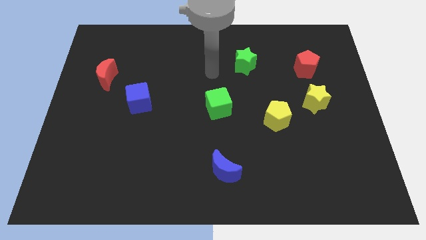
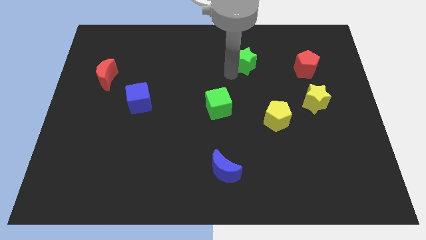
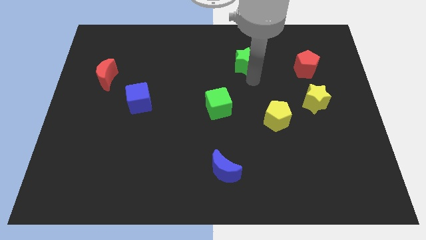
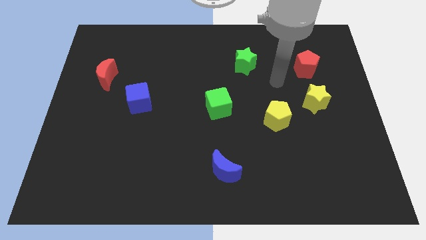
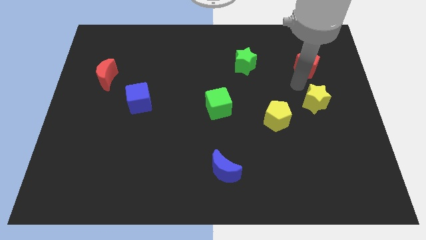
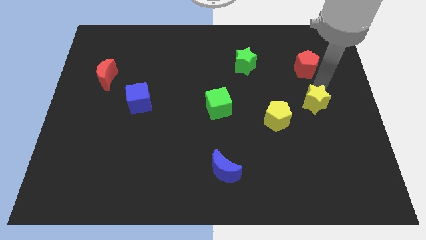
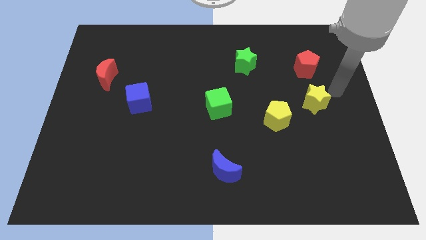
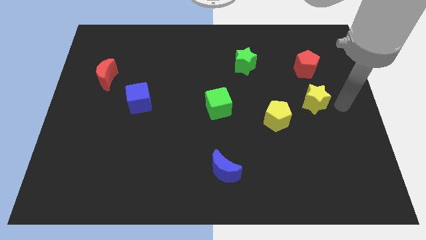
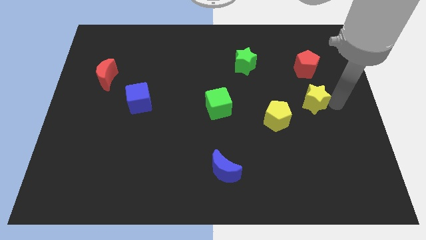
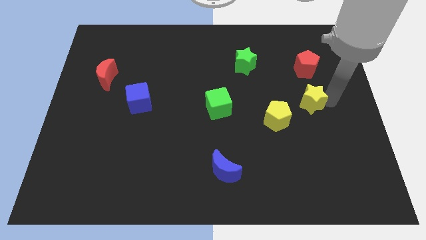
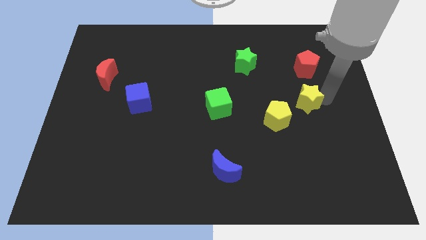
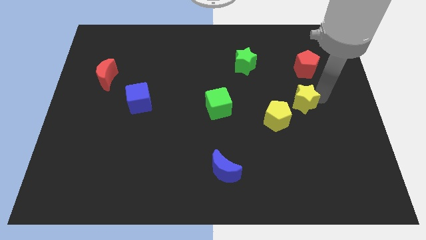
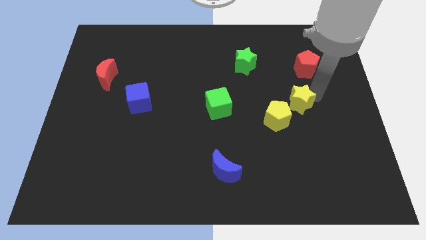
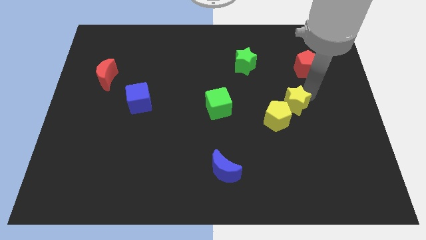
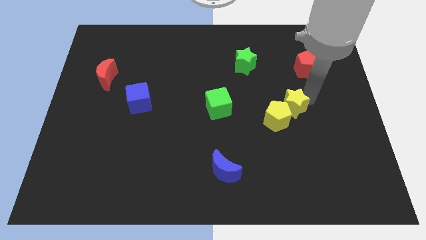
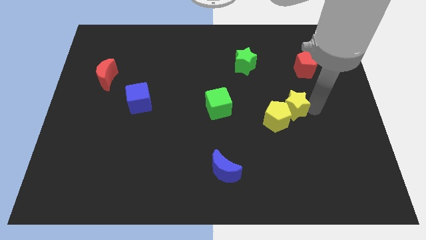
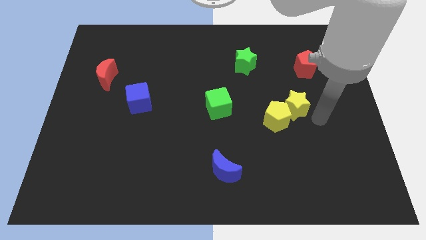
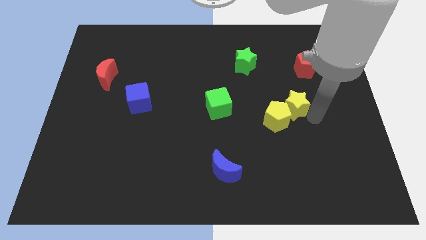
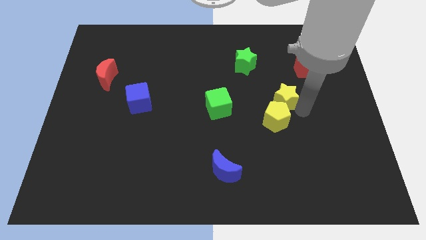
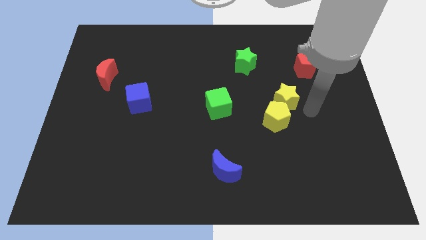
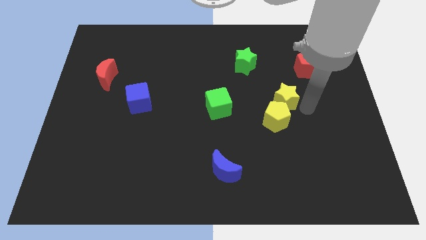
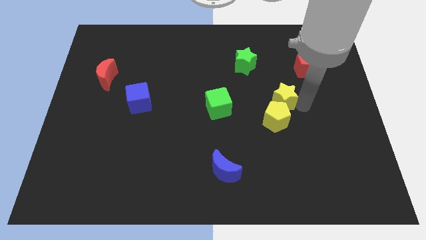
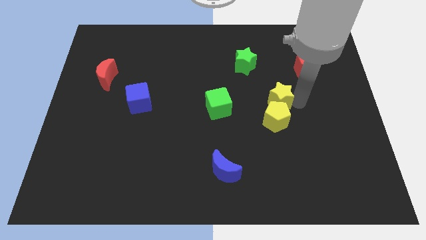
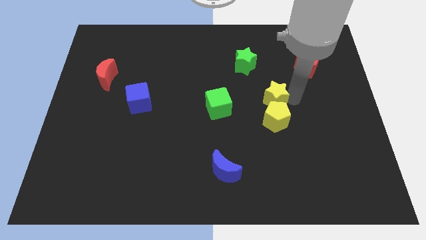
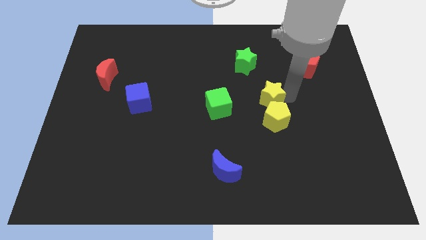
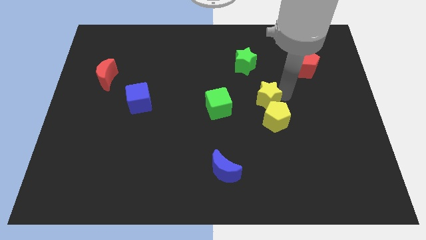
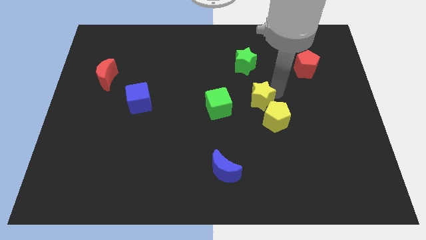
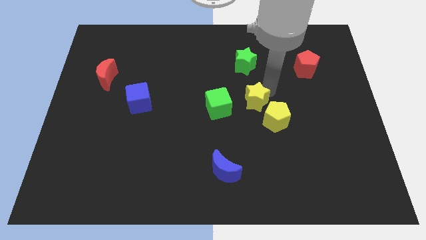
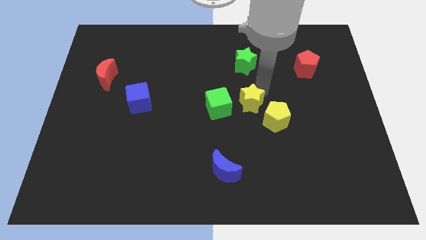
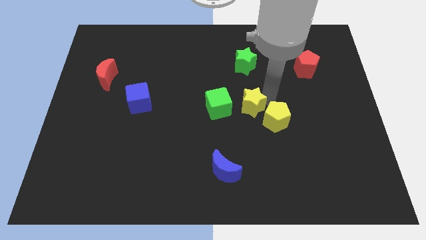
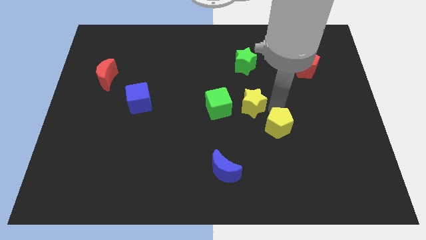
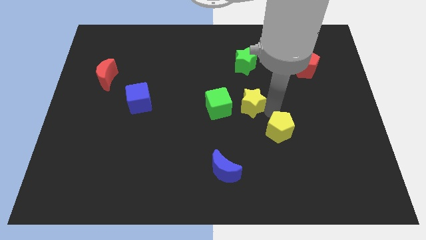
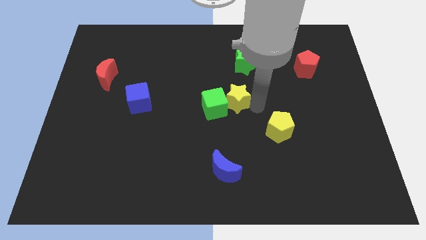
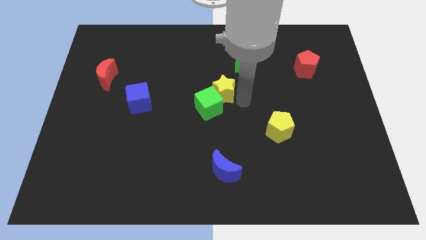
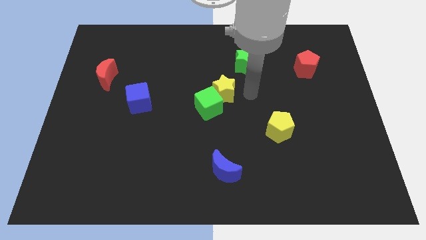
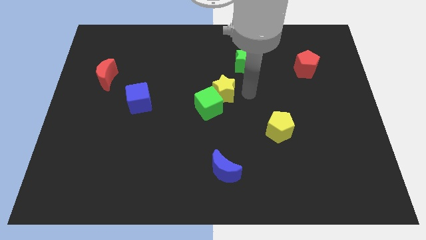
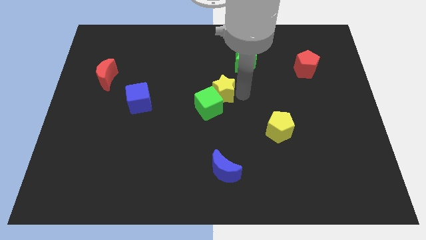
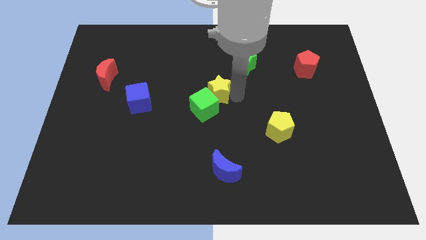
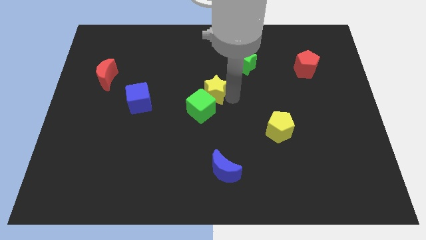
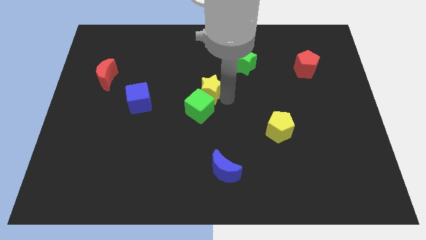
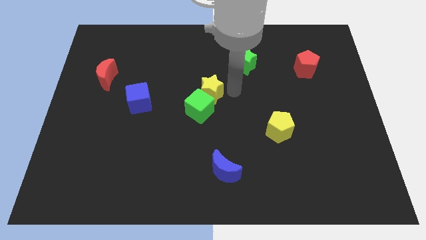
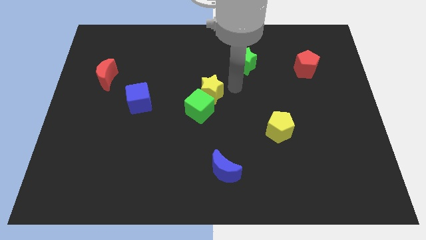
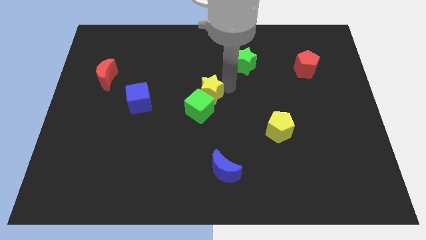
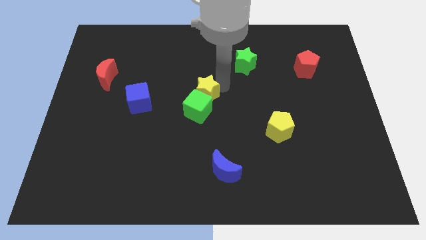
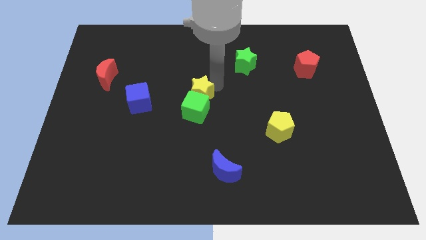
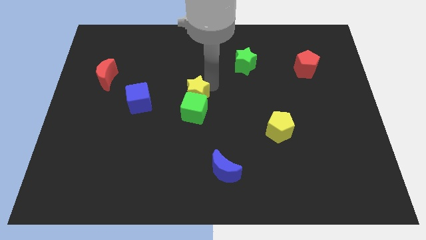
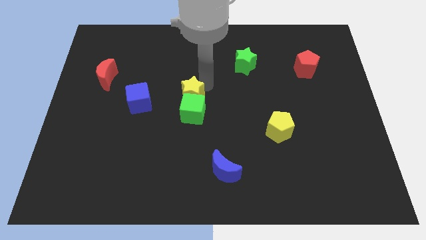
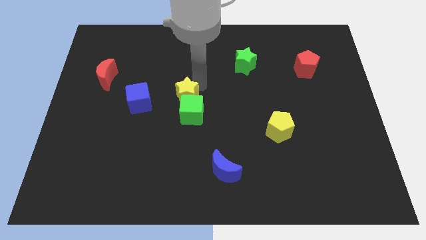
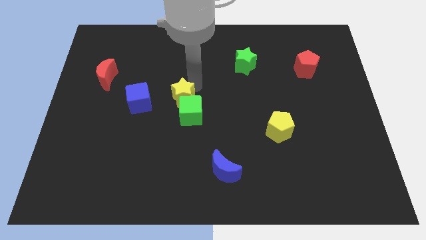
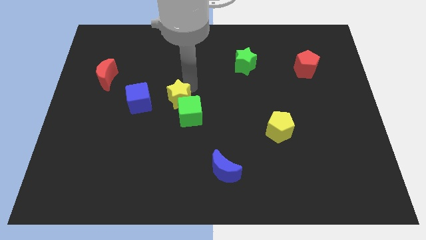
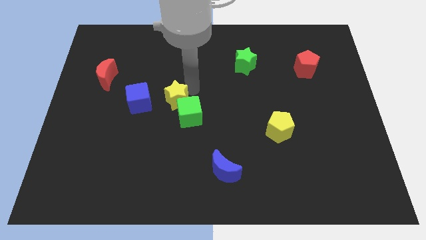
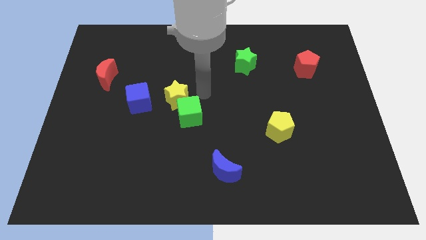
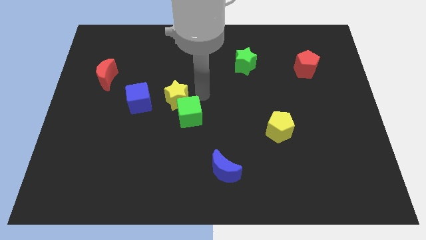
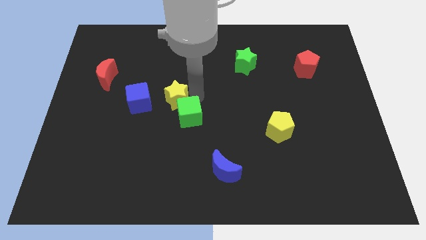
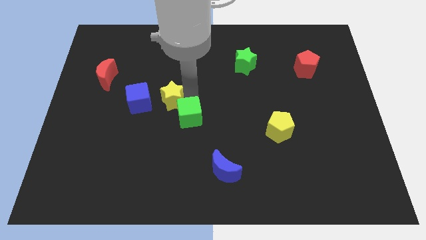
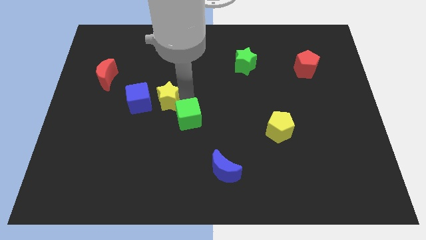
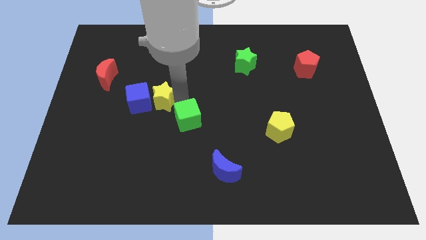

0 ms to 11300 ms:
push the yellow star towards the blue cube

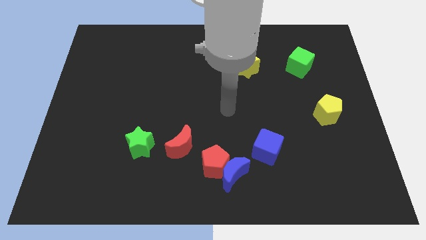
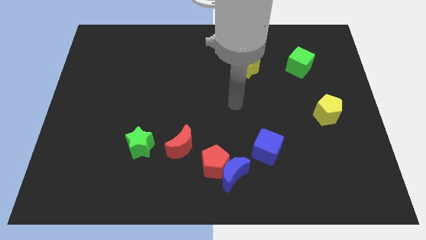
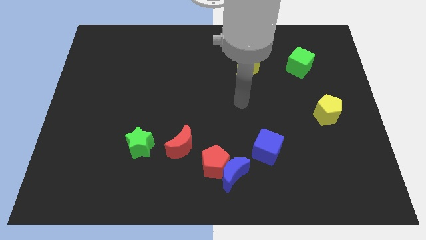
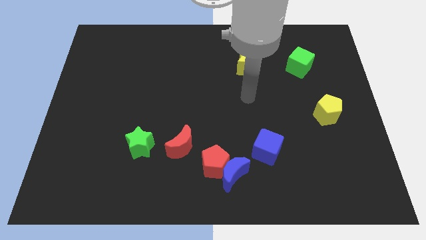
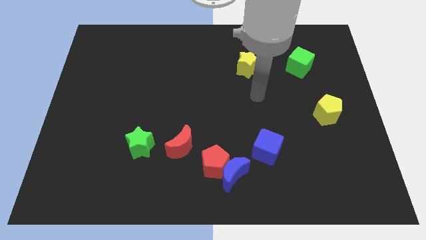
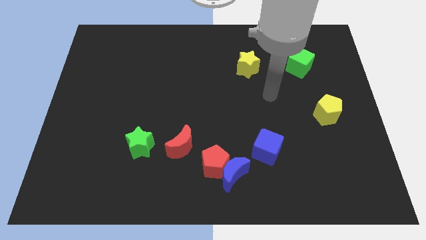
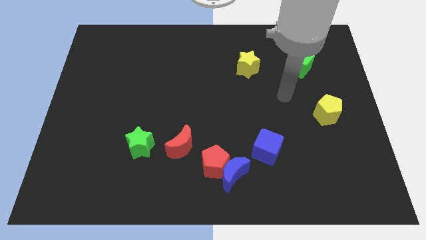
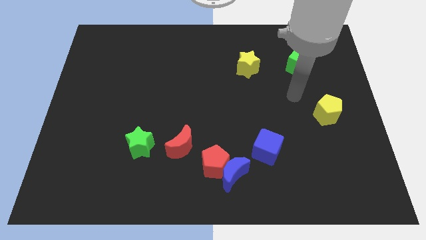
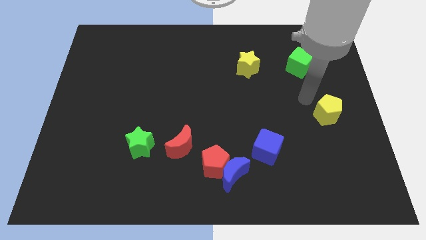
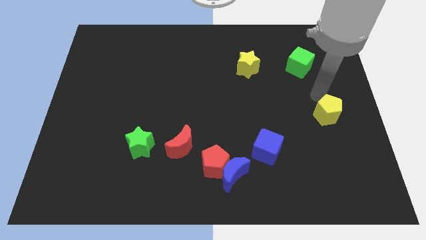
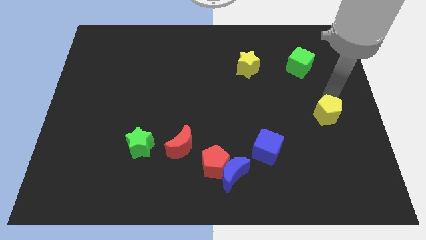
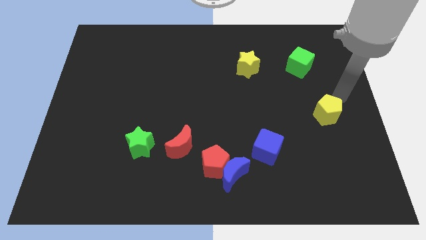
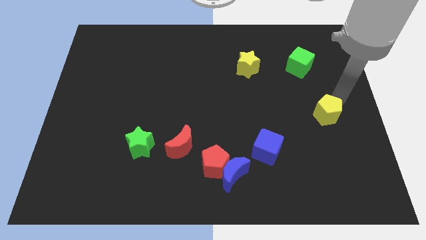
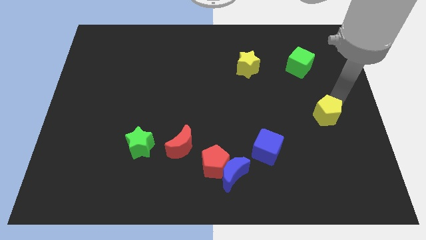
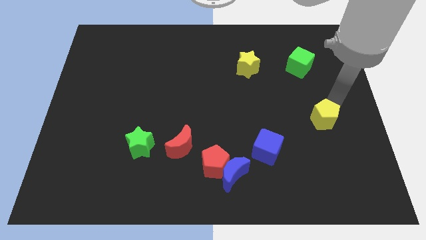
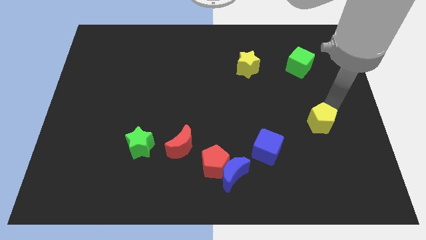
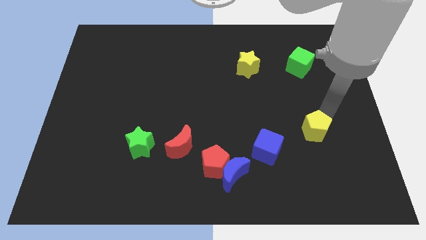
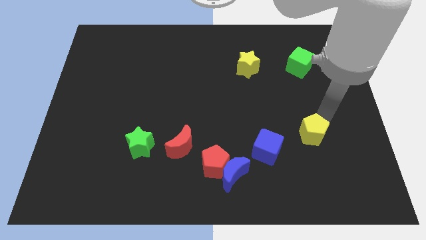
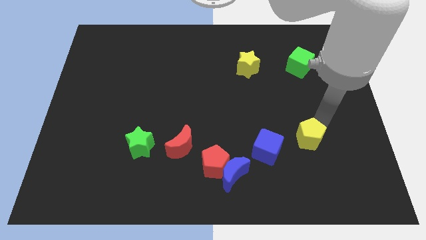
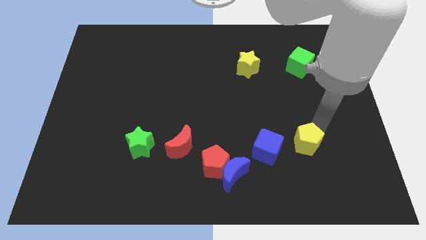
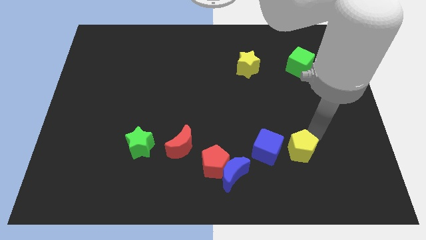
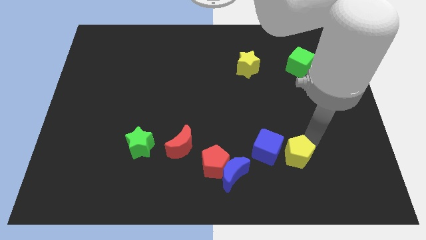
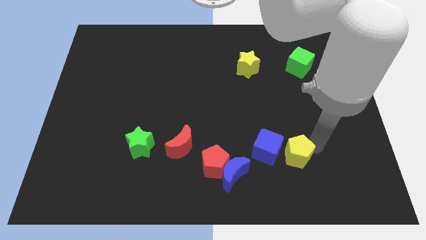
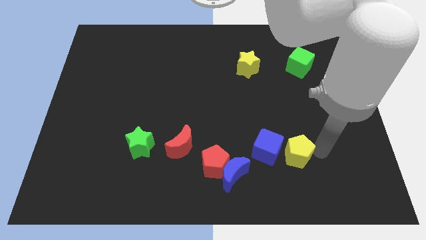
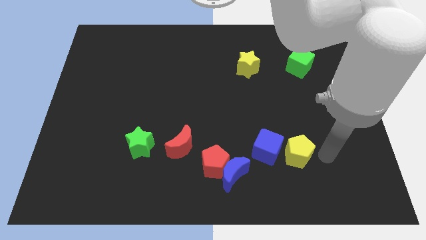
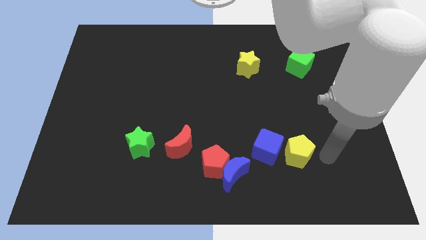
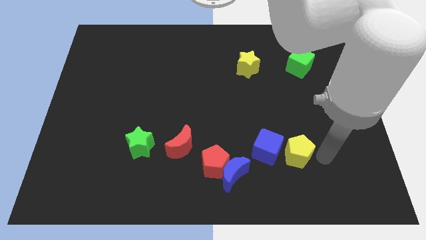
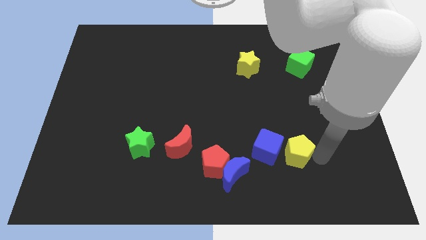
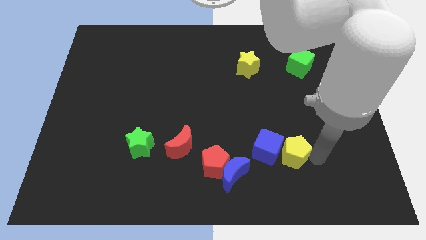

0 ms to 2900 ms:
put the yellow pentagon close to the blue cube
